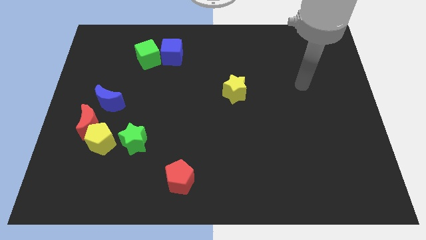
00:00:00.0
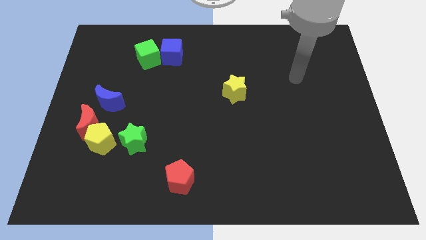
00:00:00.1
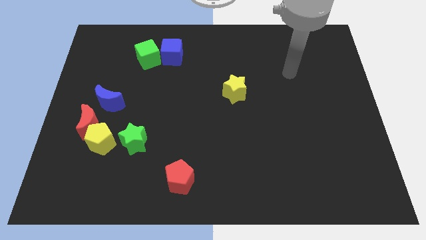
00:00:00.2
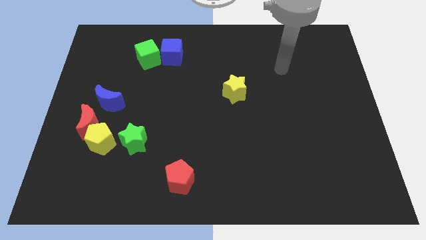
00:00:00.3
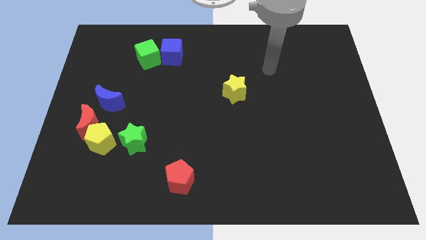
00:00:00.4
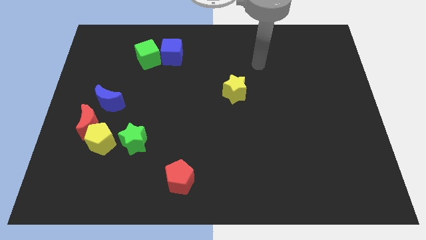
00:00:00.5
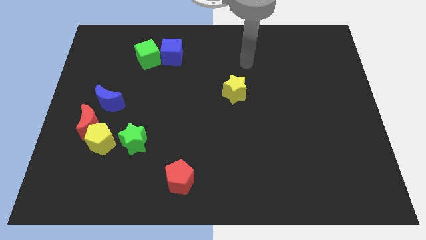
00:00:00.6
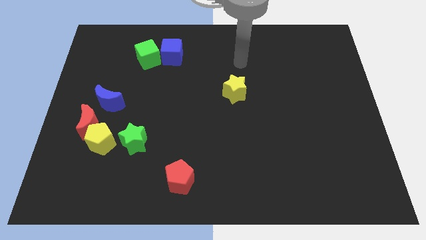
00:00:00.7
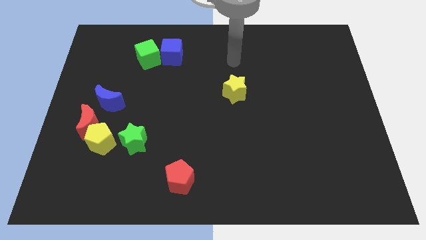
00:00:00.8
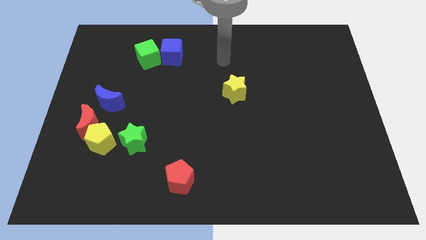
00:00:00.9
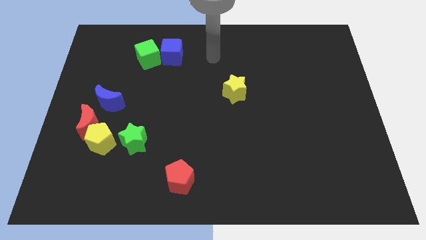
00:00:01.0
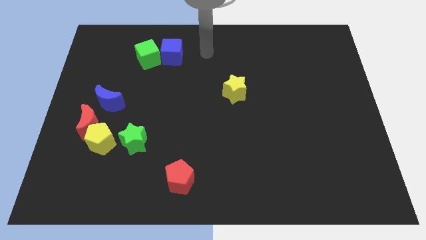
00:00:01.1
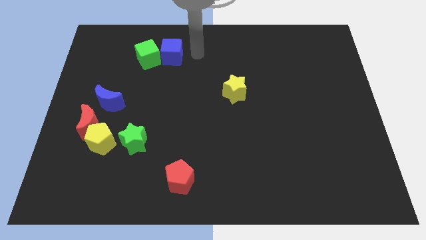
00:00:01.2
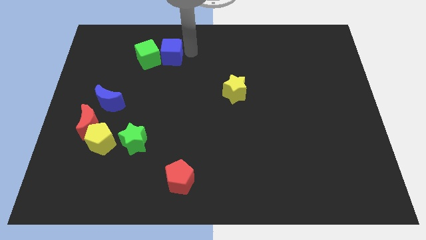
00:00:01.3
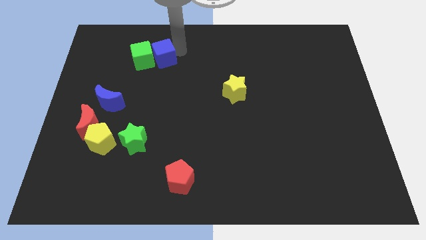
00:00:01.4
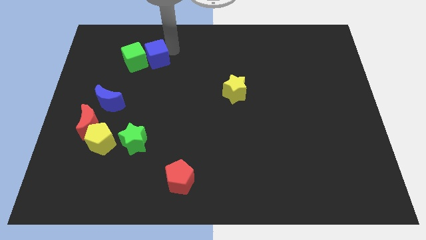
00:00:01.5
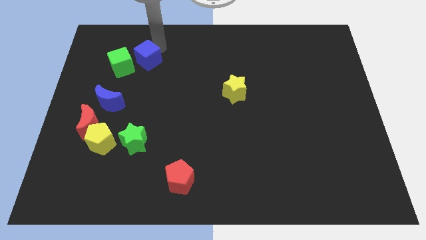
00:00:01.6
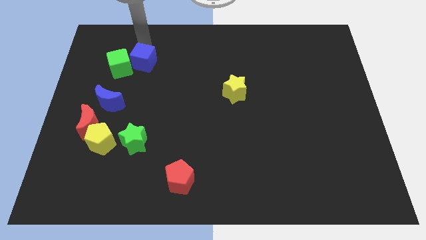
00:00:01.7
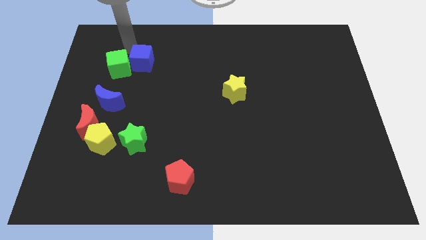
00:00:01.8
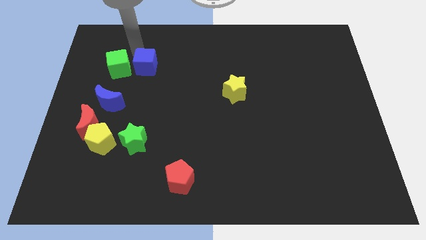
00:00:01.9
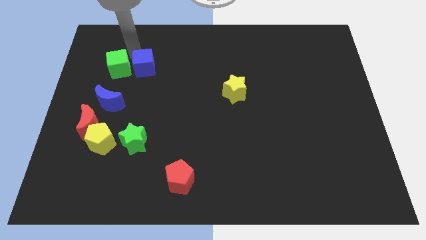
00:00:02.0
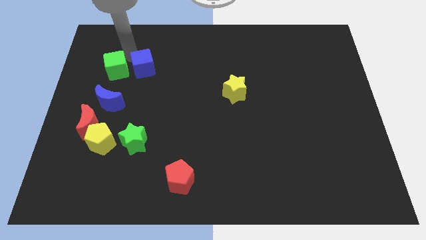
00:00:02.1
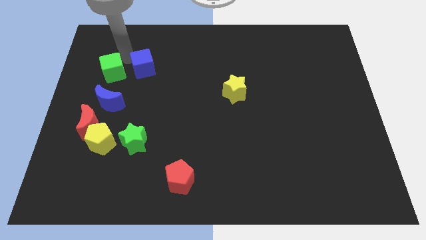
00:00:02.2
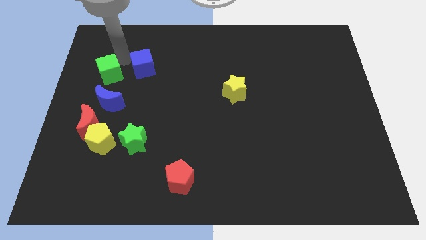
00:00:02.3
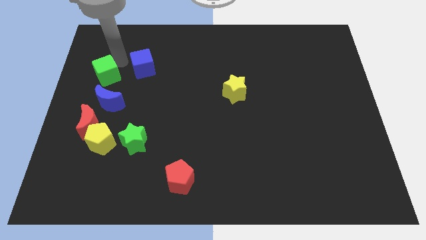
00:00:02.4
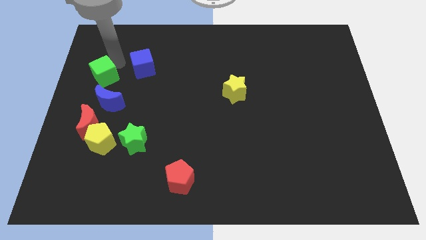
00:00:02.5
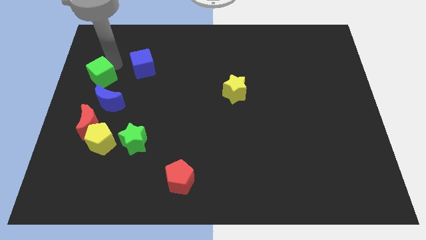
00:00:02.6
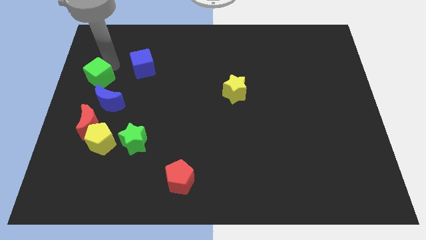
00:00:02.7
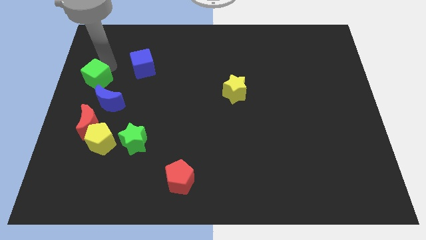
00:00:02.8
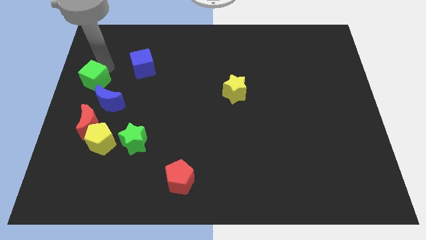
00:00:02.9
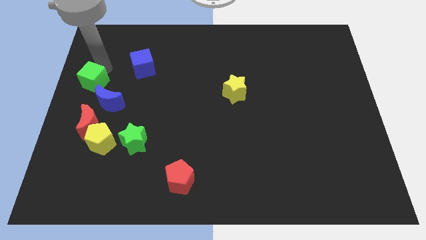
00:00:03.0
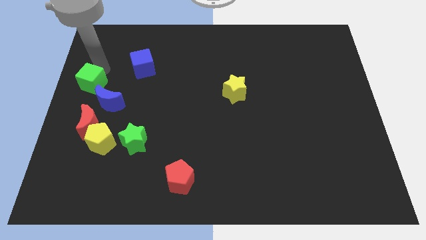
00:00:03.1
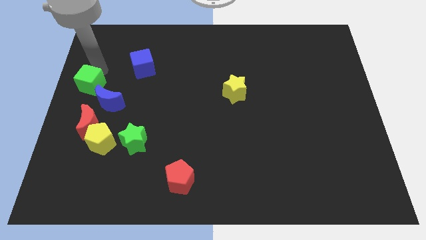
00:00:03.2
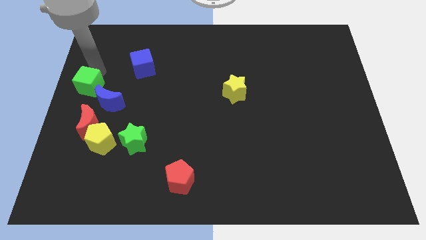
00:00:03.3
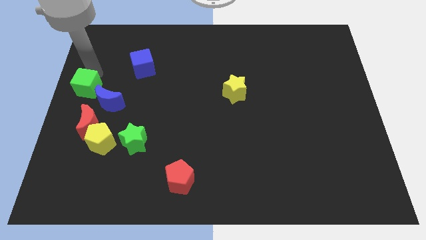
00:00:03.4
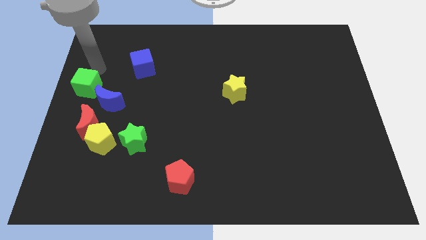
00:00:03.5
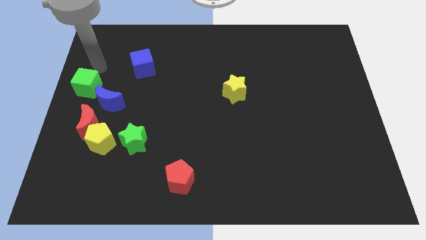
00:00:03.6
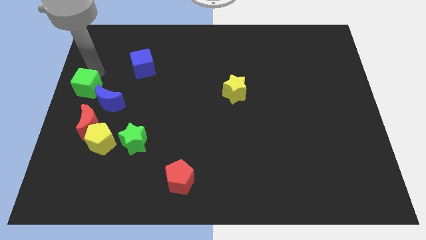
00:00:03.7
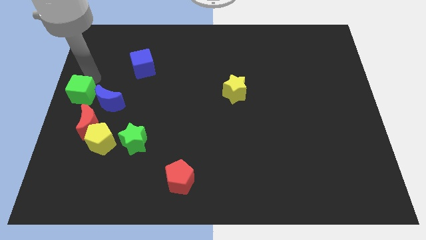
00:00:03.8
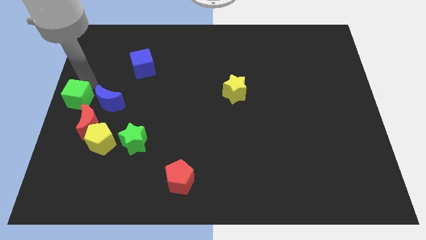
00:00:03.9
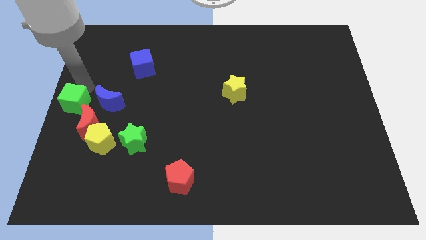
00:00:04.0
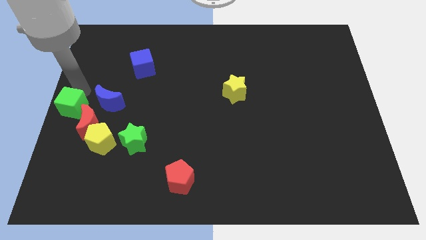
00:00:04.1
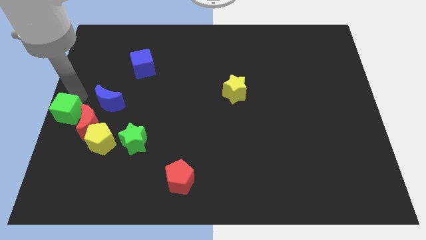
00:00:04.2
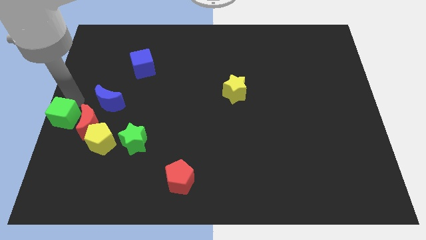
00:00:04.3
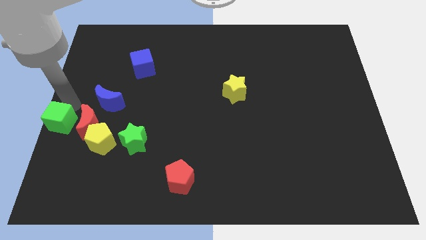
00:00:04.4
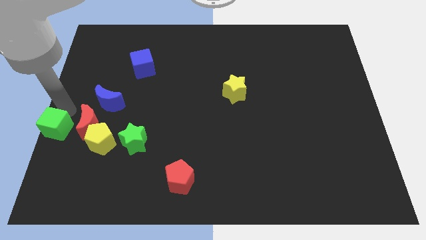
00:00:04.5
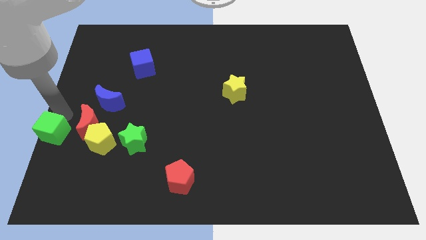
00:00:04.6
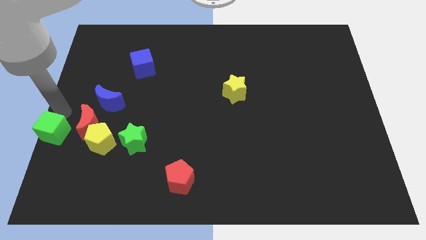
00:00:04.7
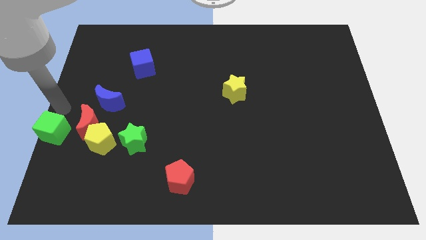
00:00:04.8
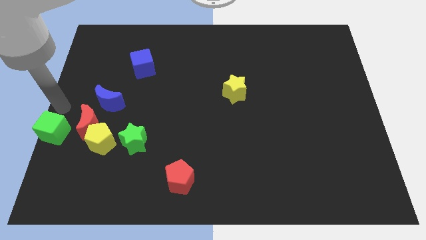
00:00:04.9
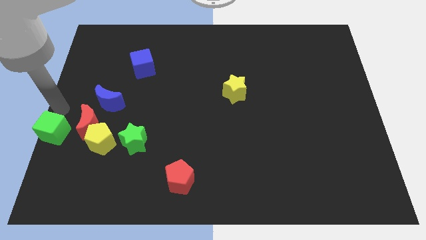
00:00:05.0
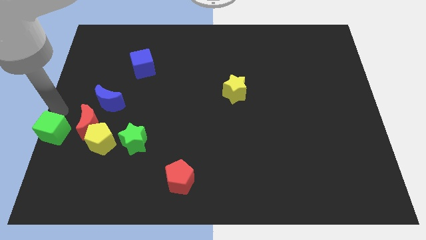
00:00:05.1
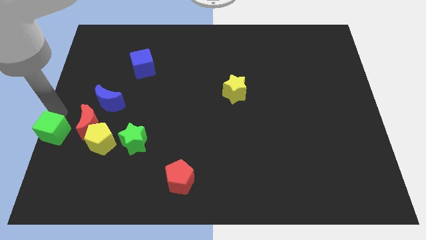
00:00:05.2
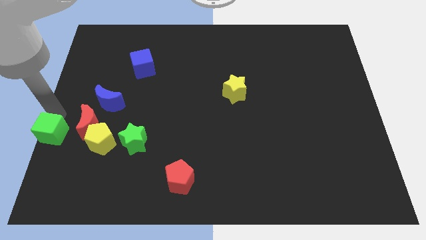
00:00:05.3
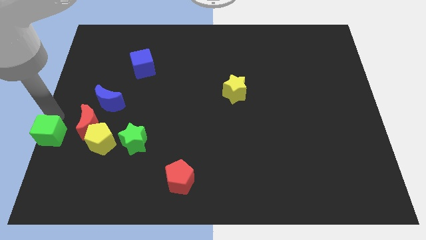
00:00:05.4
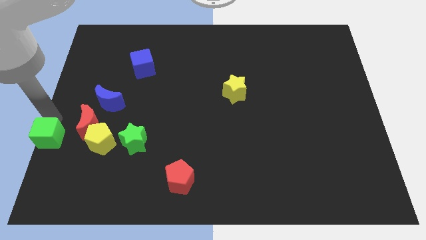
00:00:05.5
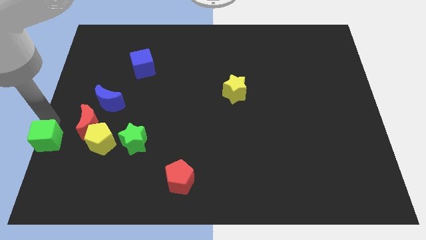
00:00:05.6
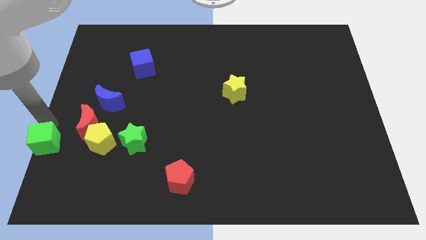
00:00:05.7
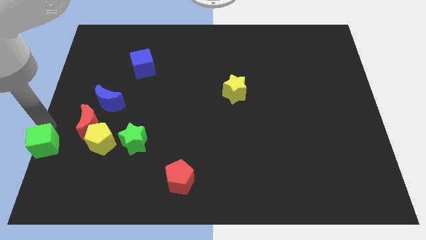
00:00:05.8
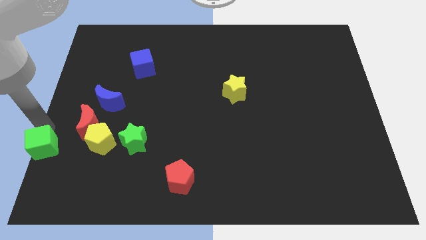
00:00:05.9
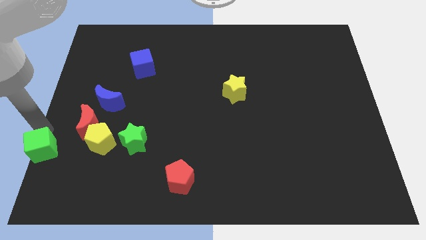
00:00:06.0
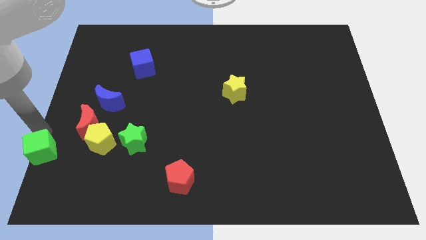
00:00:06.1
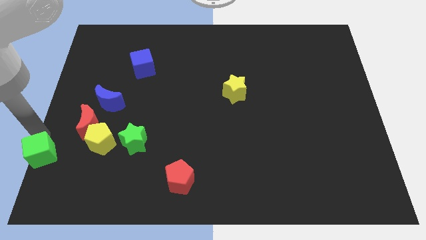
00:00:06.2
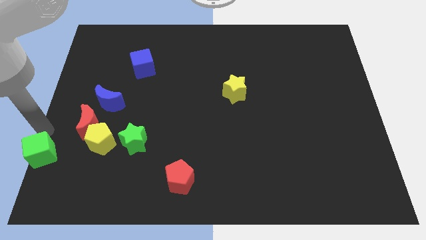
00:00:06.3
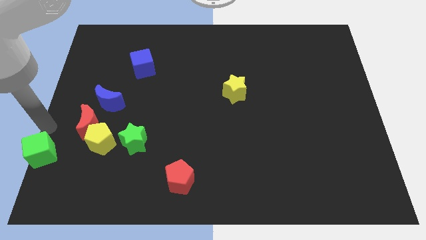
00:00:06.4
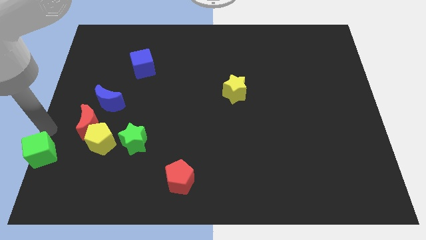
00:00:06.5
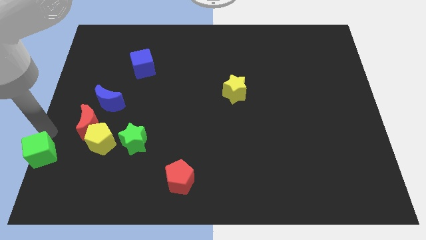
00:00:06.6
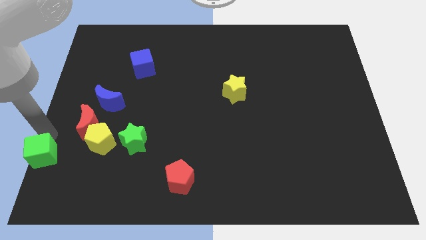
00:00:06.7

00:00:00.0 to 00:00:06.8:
put the green cube to the bottom left of the board
